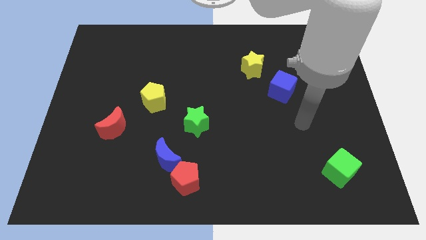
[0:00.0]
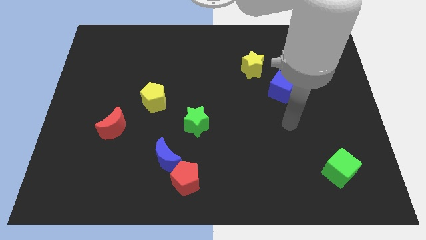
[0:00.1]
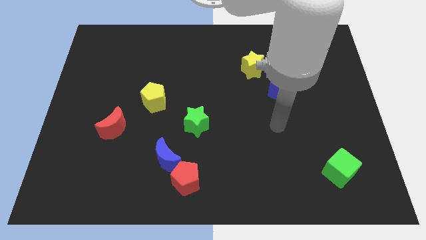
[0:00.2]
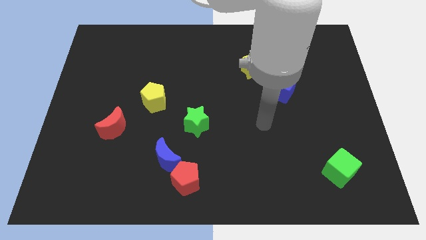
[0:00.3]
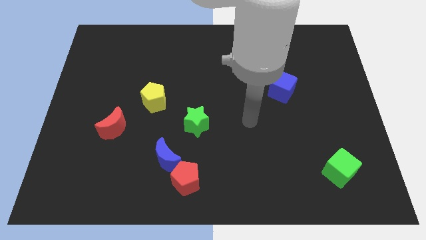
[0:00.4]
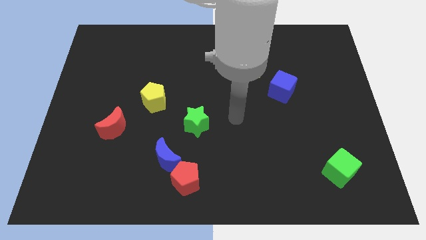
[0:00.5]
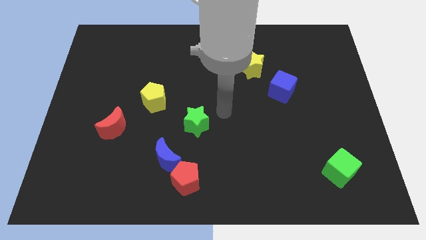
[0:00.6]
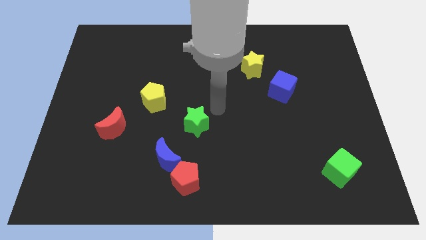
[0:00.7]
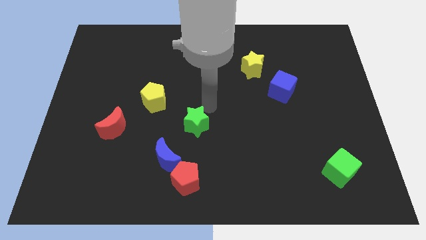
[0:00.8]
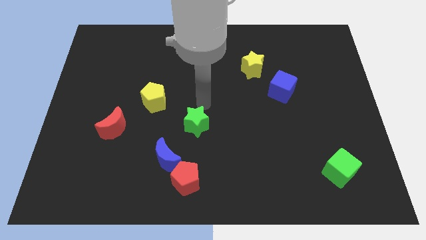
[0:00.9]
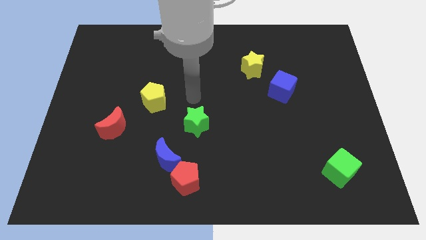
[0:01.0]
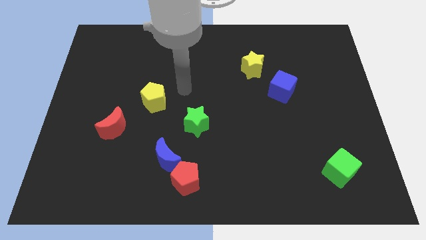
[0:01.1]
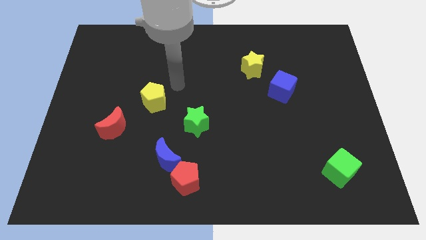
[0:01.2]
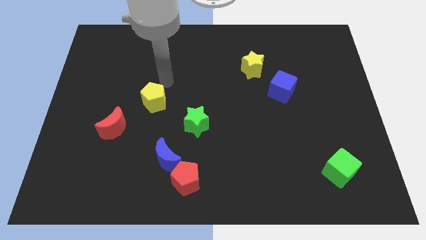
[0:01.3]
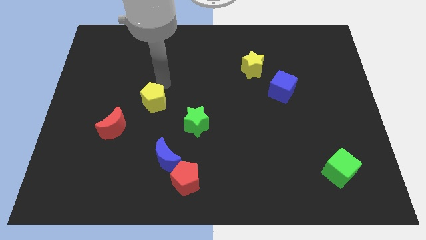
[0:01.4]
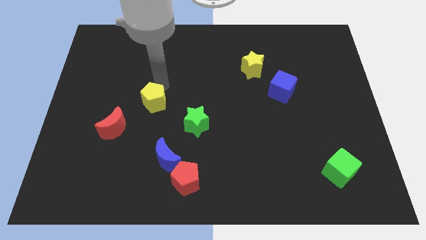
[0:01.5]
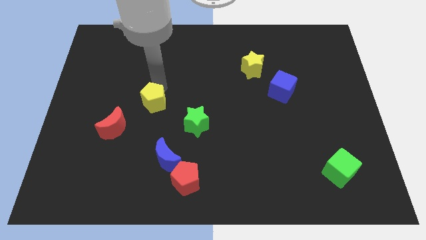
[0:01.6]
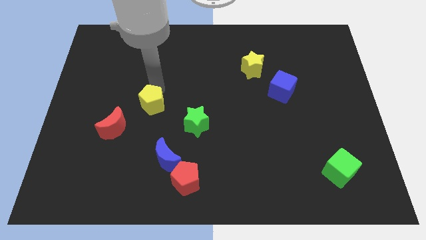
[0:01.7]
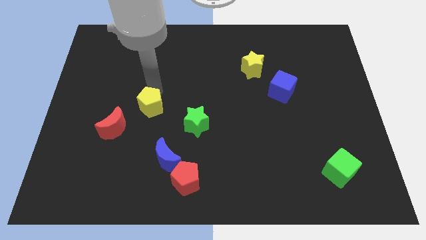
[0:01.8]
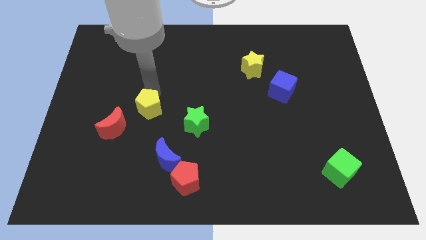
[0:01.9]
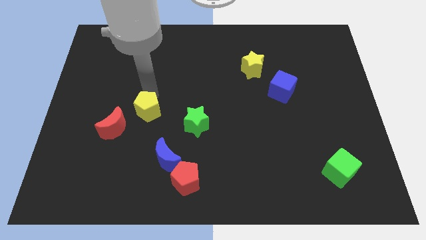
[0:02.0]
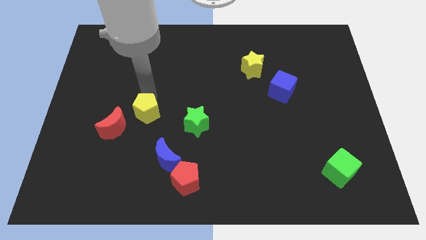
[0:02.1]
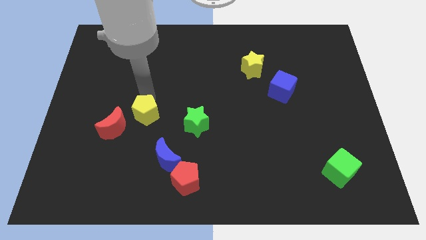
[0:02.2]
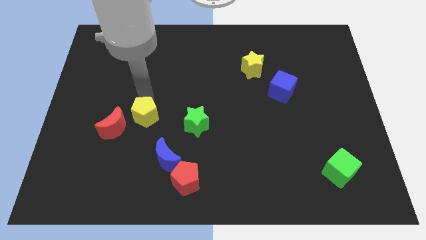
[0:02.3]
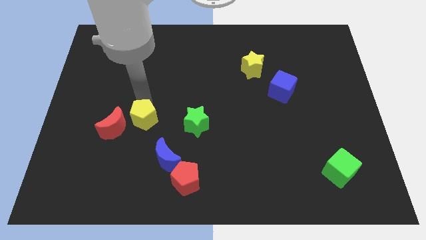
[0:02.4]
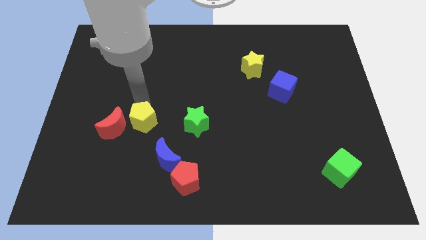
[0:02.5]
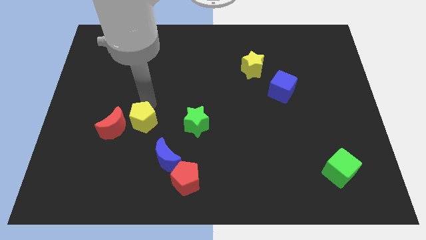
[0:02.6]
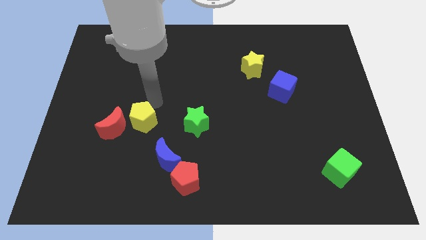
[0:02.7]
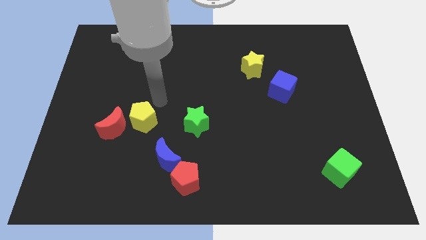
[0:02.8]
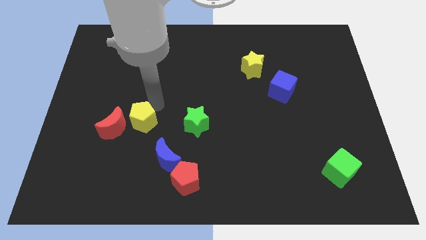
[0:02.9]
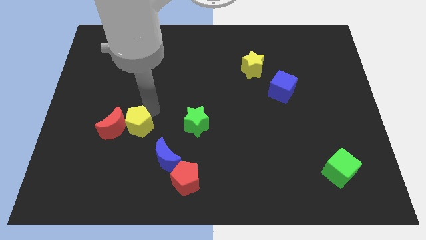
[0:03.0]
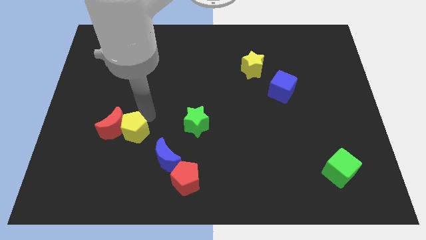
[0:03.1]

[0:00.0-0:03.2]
push the yellow pentagon a little down and left diagonally

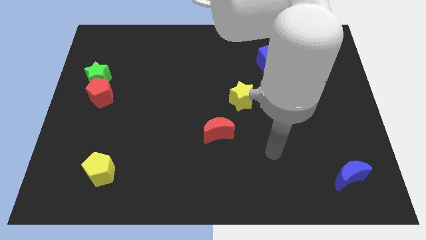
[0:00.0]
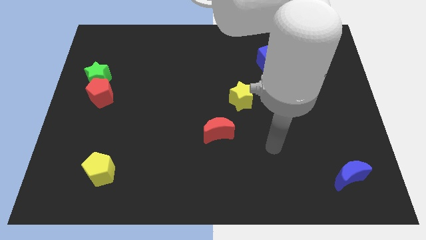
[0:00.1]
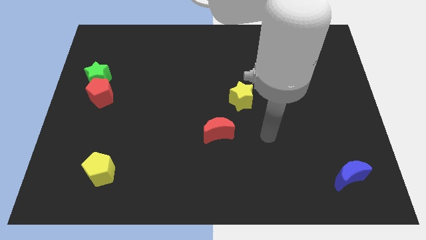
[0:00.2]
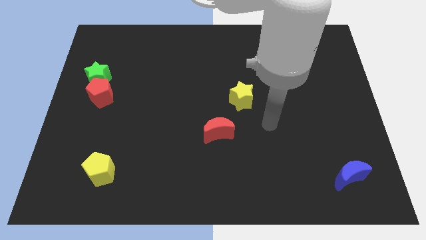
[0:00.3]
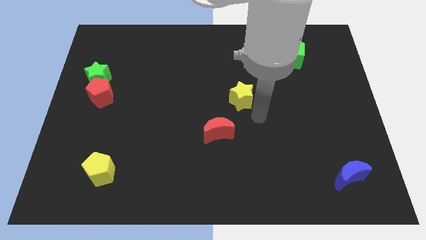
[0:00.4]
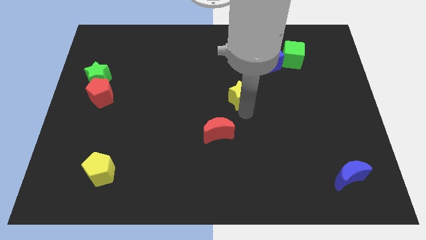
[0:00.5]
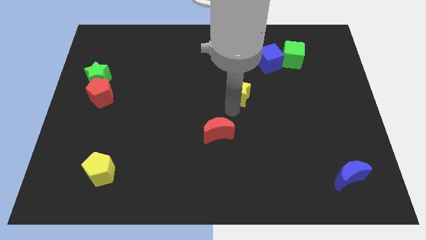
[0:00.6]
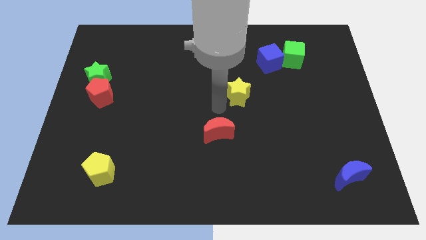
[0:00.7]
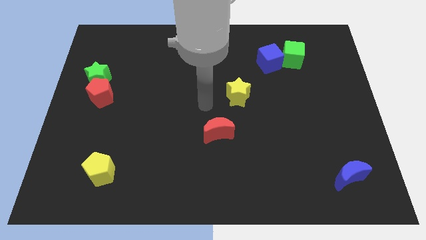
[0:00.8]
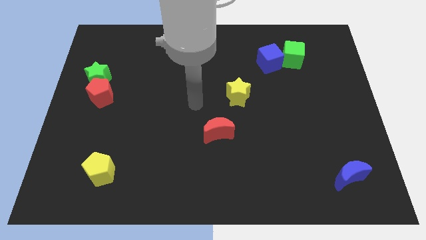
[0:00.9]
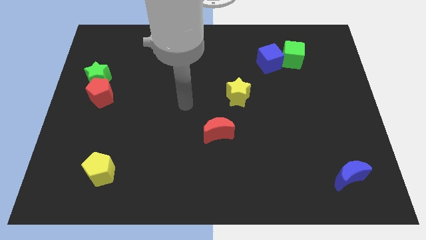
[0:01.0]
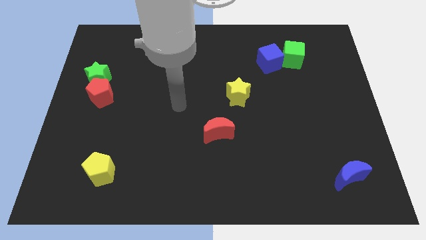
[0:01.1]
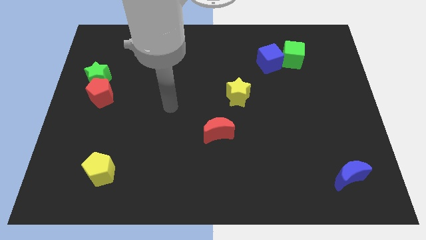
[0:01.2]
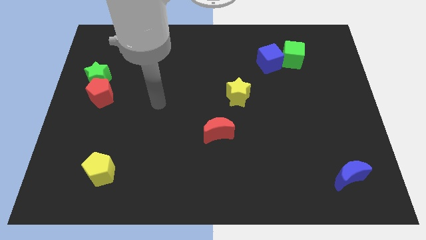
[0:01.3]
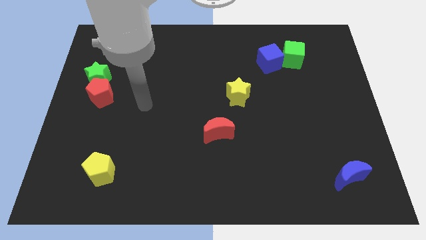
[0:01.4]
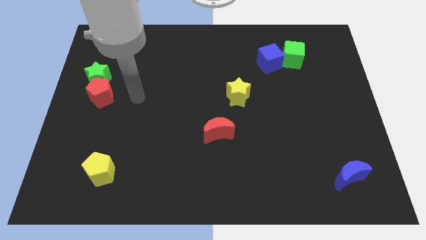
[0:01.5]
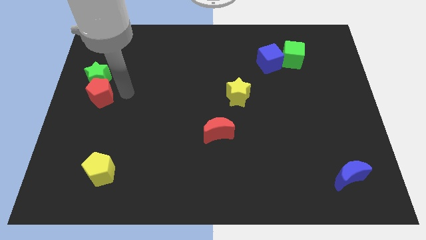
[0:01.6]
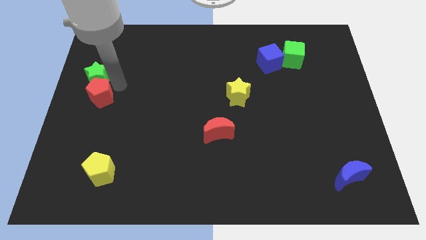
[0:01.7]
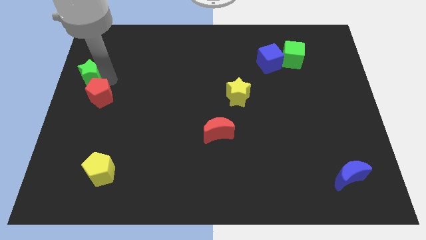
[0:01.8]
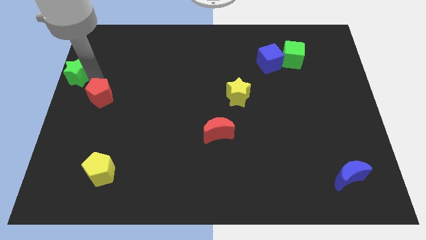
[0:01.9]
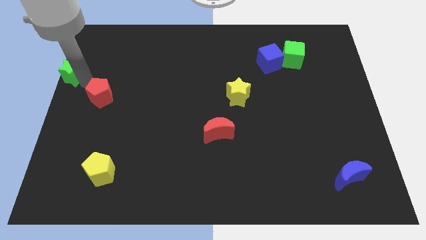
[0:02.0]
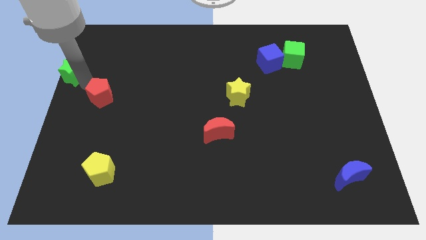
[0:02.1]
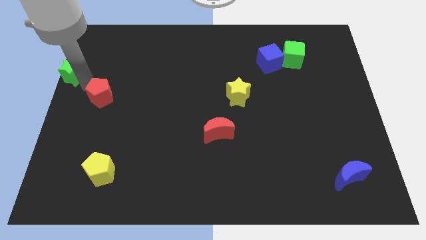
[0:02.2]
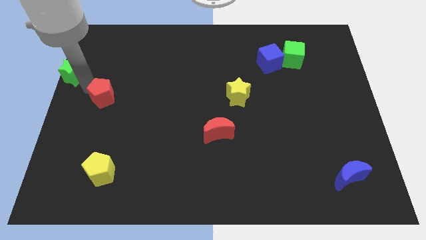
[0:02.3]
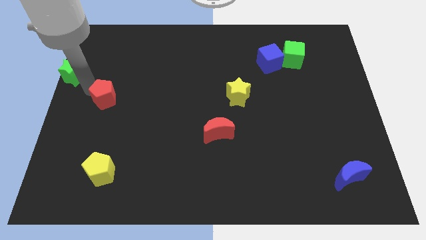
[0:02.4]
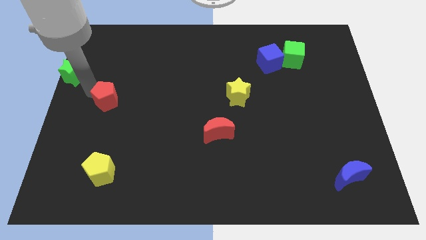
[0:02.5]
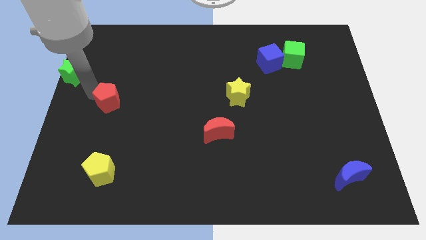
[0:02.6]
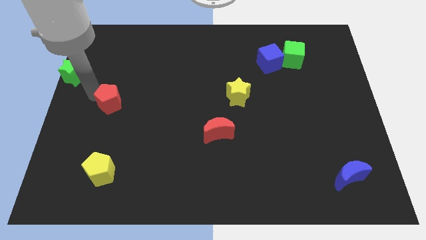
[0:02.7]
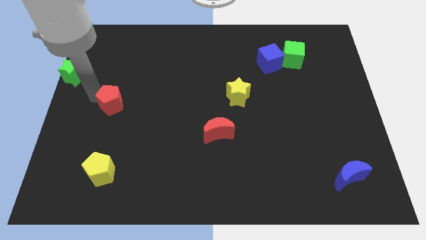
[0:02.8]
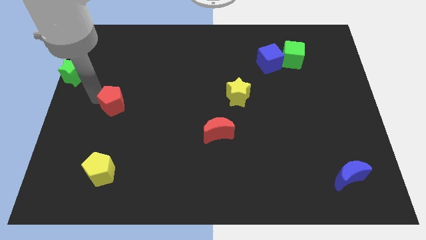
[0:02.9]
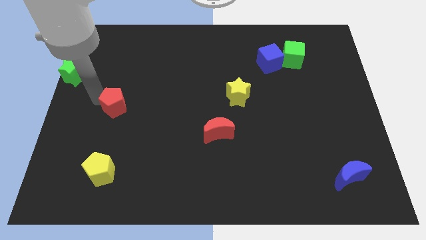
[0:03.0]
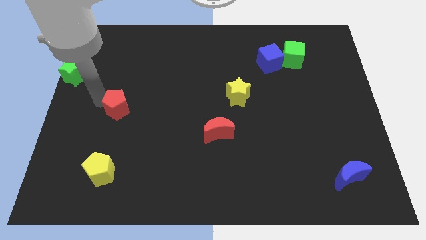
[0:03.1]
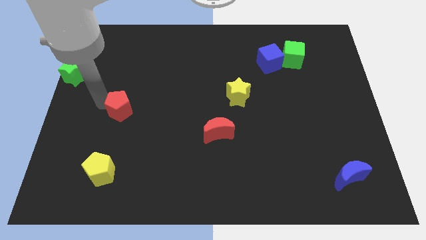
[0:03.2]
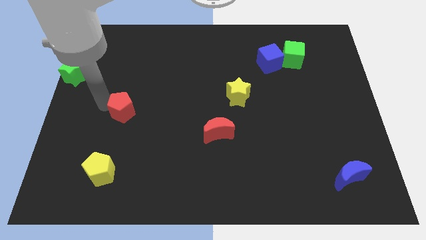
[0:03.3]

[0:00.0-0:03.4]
slide the red pentagon a little bit downwards and then right

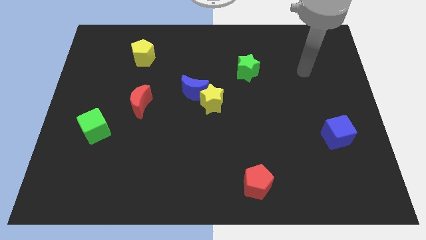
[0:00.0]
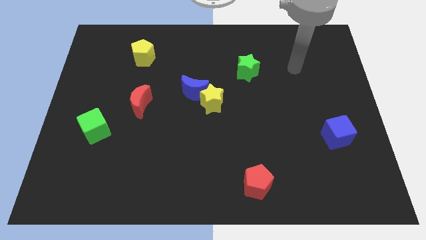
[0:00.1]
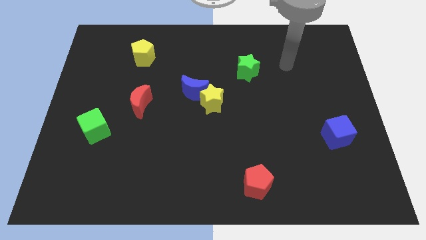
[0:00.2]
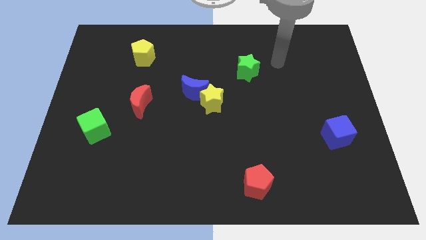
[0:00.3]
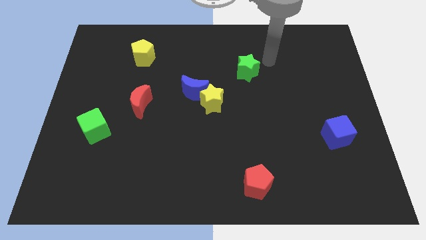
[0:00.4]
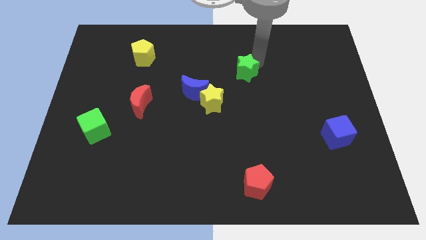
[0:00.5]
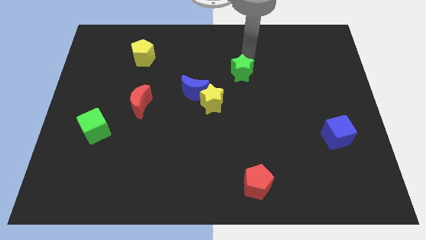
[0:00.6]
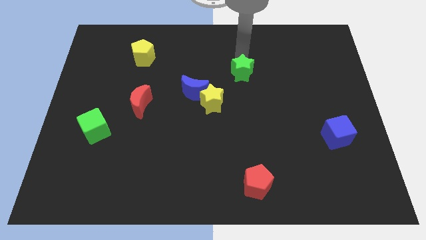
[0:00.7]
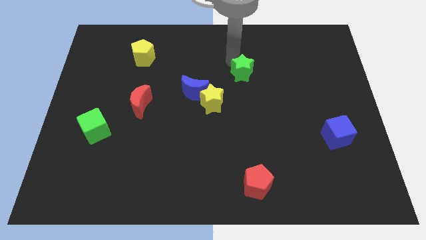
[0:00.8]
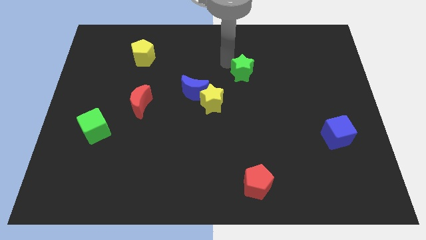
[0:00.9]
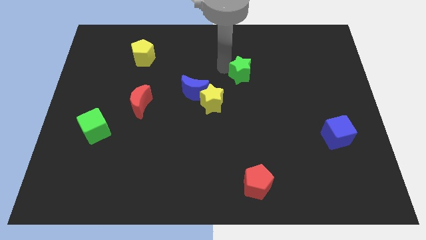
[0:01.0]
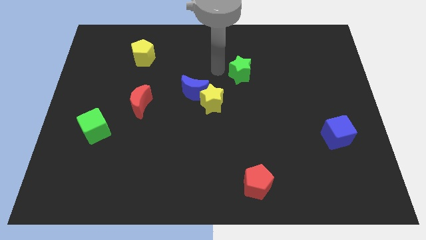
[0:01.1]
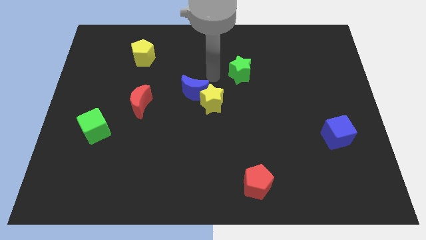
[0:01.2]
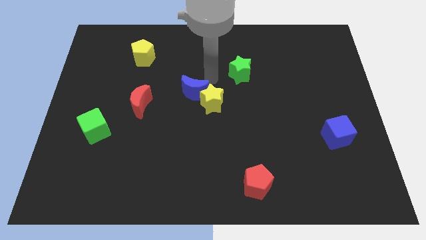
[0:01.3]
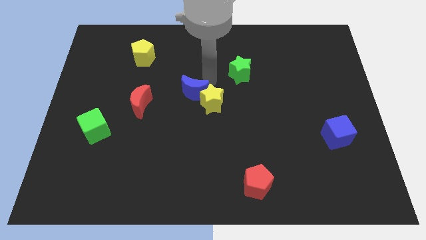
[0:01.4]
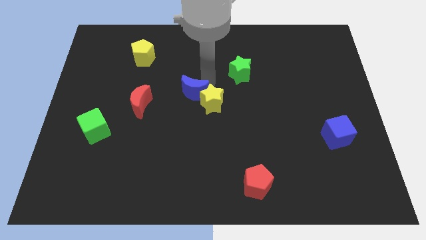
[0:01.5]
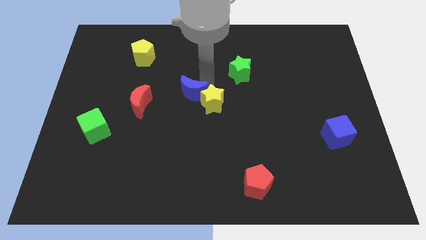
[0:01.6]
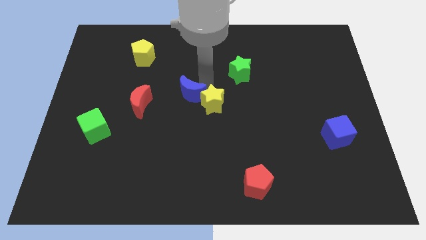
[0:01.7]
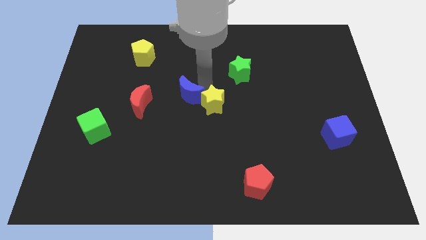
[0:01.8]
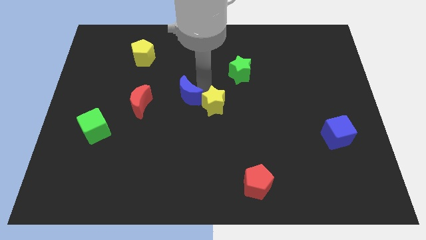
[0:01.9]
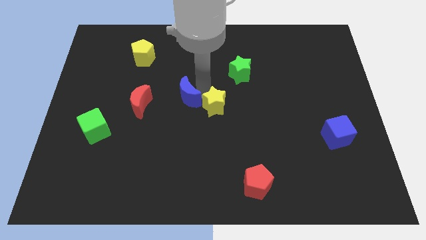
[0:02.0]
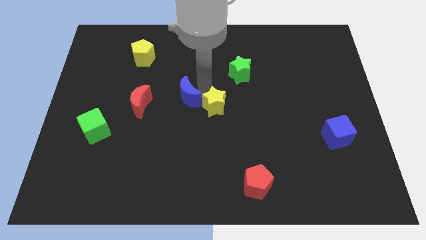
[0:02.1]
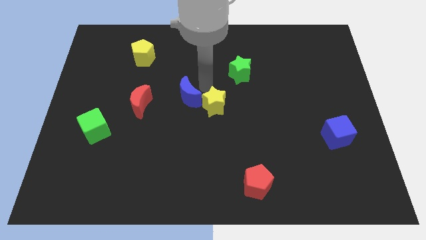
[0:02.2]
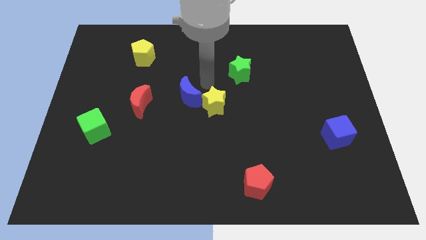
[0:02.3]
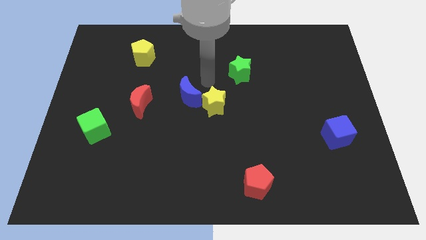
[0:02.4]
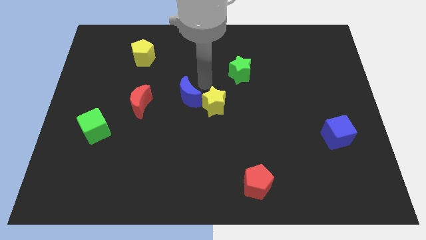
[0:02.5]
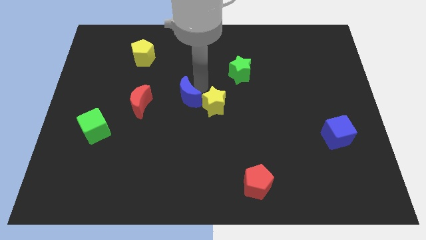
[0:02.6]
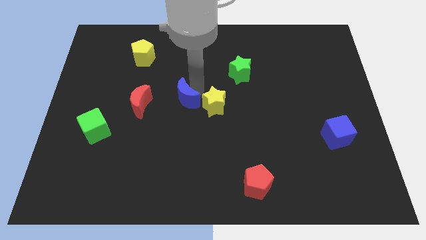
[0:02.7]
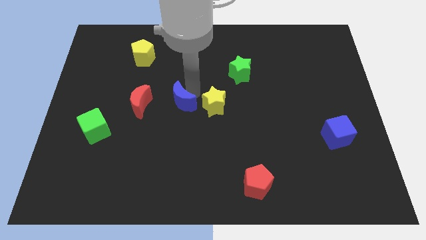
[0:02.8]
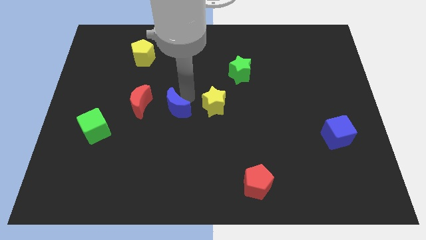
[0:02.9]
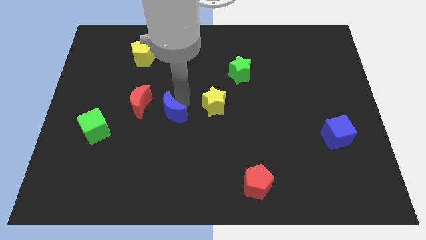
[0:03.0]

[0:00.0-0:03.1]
push the blue moon slightly diagonally downwards and to the left
